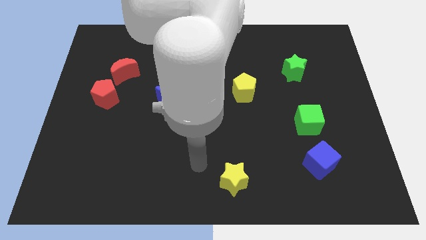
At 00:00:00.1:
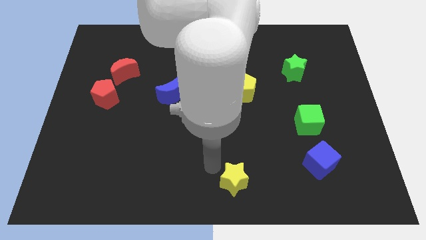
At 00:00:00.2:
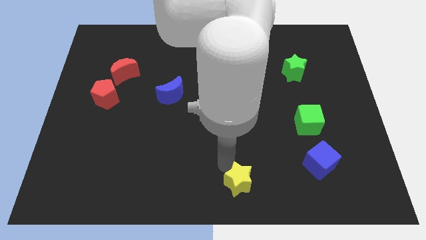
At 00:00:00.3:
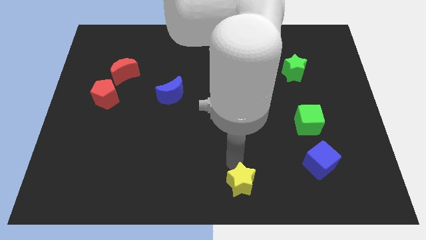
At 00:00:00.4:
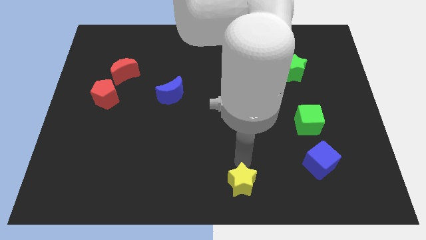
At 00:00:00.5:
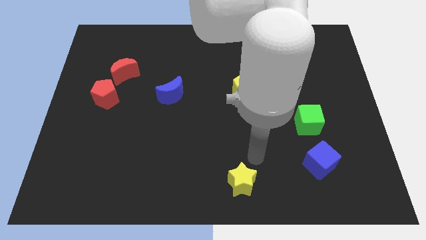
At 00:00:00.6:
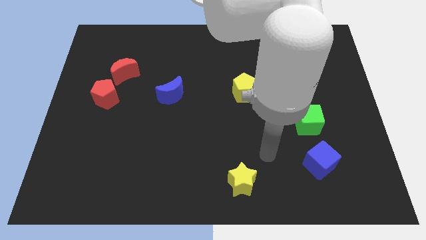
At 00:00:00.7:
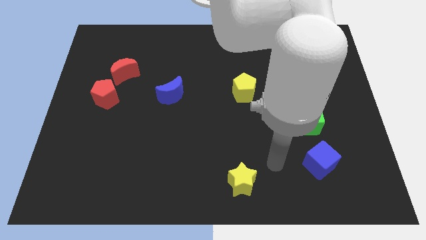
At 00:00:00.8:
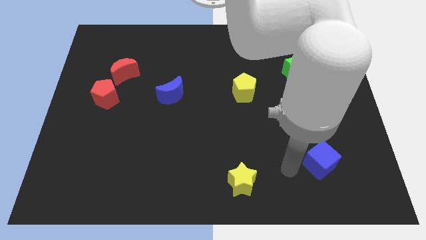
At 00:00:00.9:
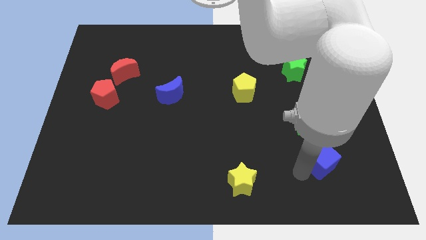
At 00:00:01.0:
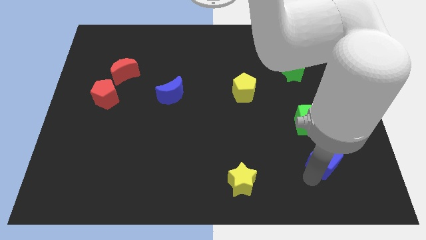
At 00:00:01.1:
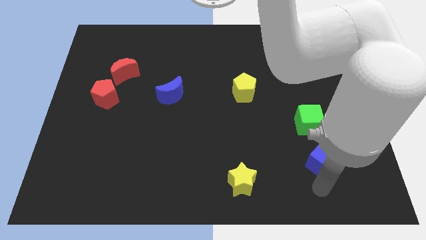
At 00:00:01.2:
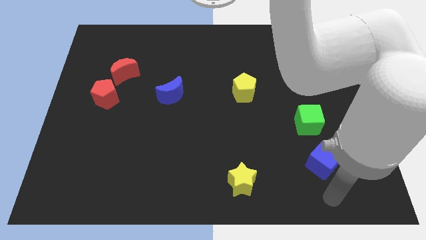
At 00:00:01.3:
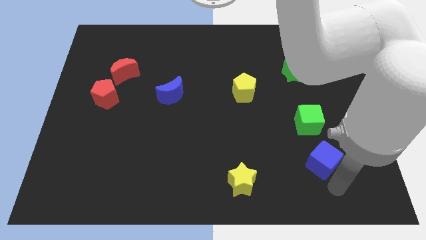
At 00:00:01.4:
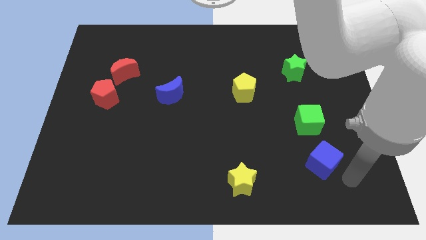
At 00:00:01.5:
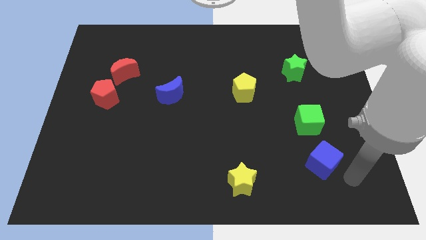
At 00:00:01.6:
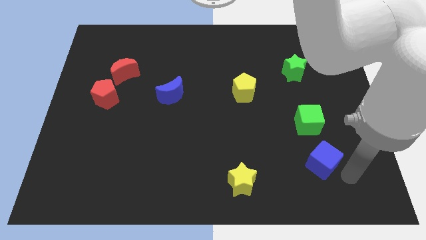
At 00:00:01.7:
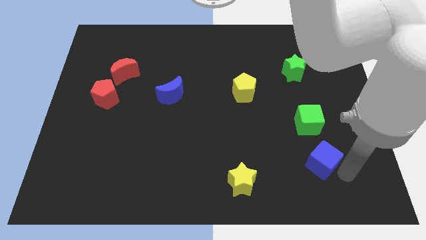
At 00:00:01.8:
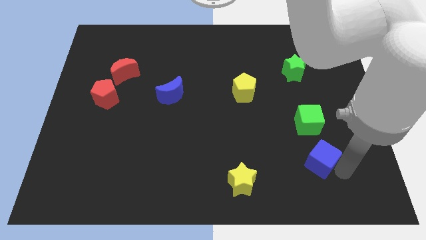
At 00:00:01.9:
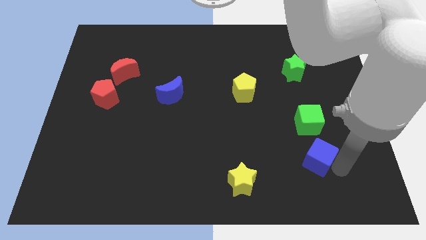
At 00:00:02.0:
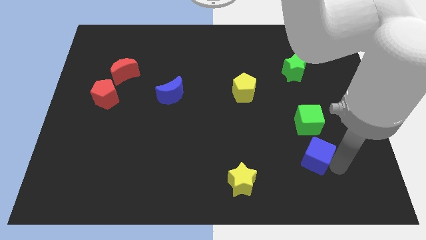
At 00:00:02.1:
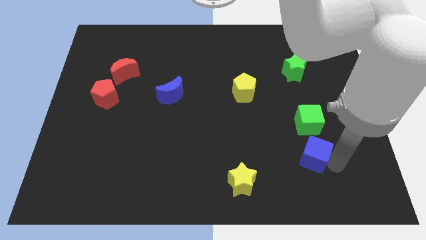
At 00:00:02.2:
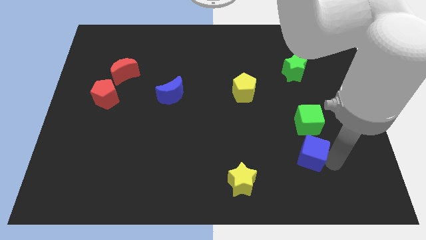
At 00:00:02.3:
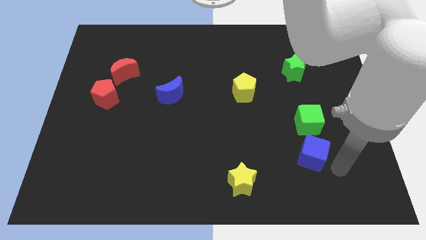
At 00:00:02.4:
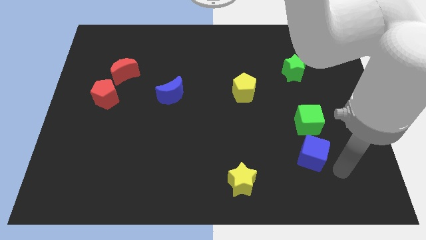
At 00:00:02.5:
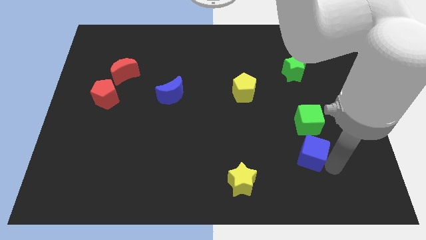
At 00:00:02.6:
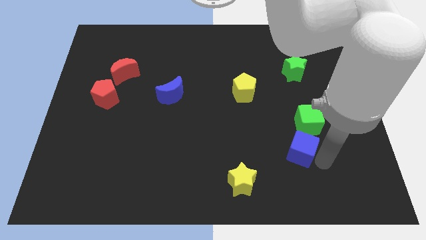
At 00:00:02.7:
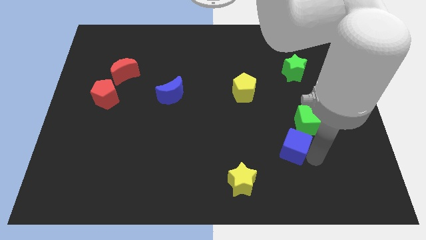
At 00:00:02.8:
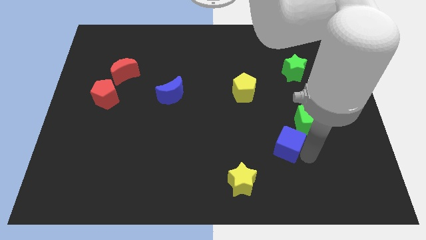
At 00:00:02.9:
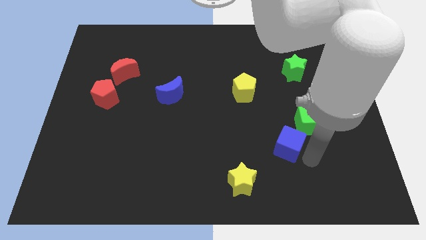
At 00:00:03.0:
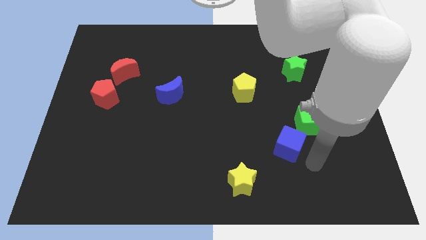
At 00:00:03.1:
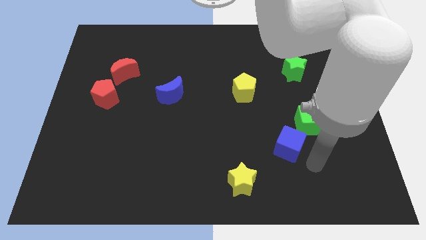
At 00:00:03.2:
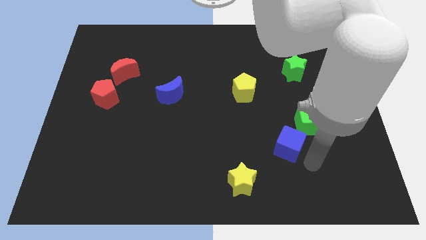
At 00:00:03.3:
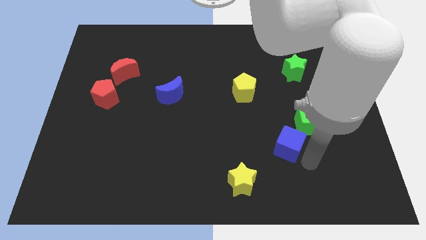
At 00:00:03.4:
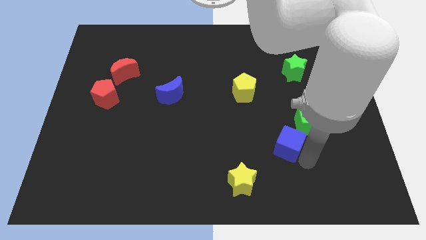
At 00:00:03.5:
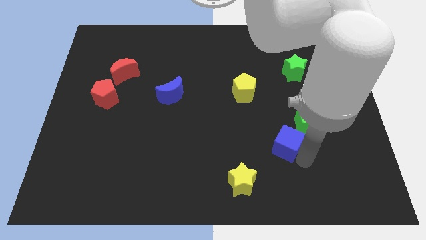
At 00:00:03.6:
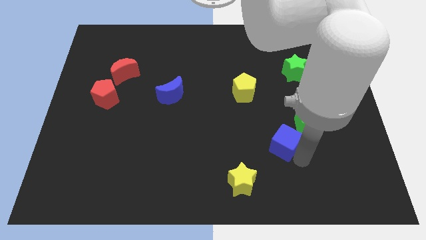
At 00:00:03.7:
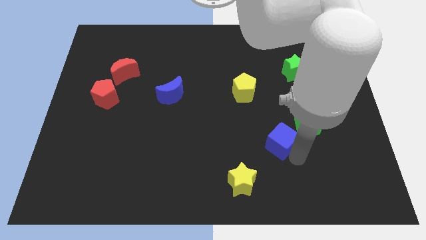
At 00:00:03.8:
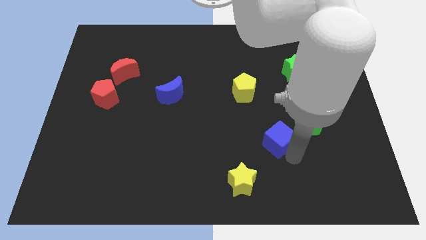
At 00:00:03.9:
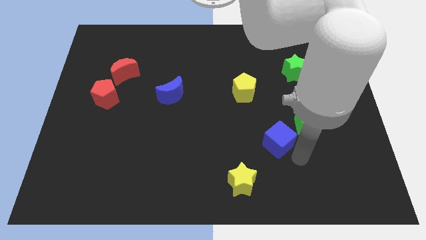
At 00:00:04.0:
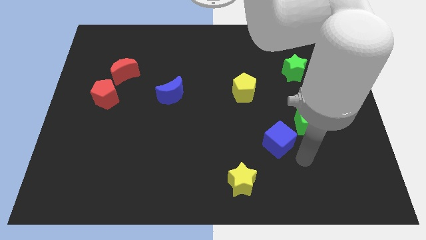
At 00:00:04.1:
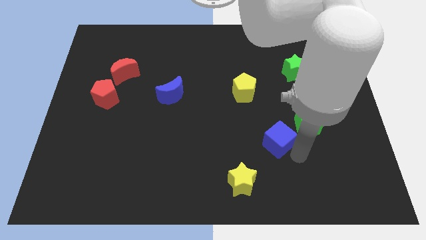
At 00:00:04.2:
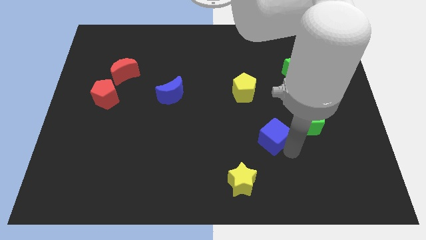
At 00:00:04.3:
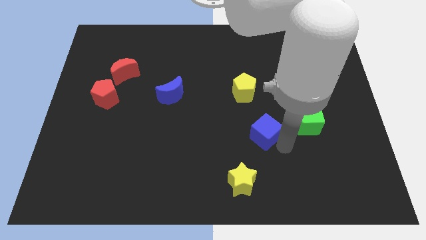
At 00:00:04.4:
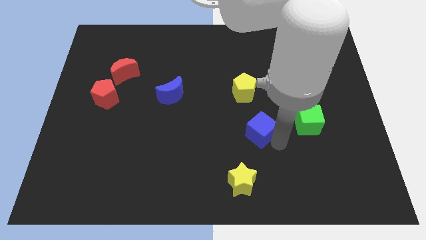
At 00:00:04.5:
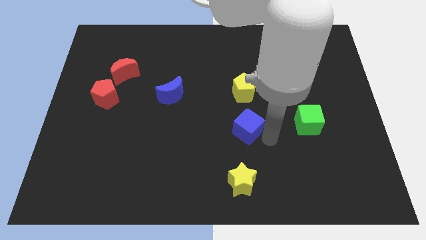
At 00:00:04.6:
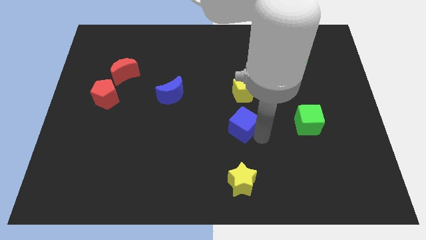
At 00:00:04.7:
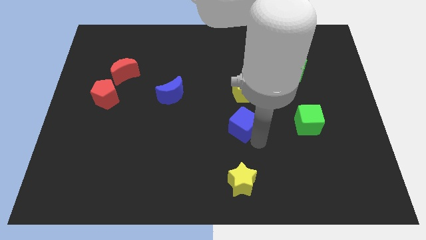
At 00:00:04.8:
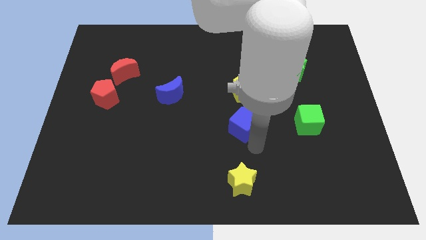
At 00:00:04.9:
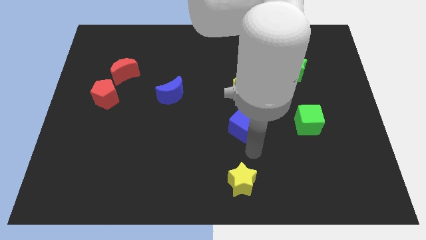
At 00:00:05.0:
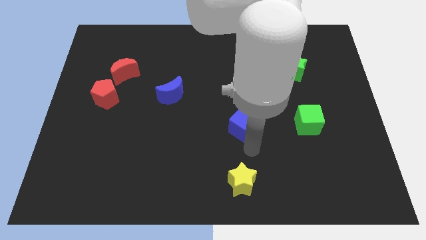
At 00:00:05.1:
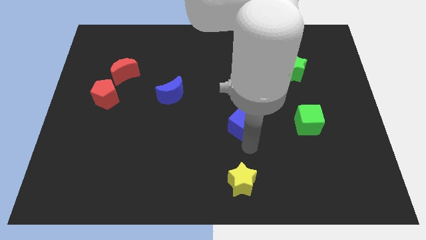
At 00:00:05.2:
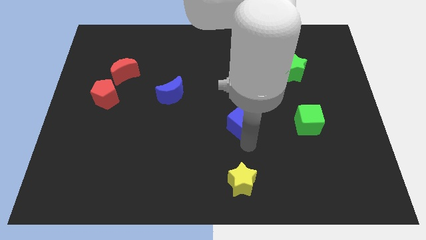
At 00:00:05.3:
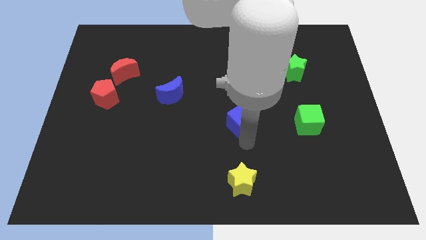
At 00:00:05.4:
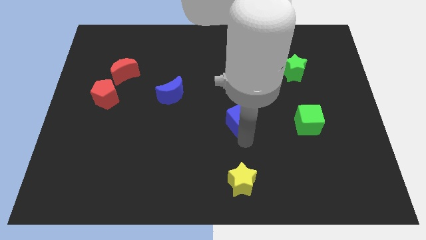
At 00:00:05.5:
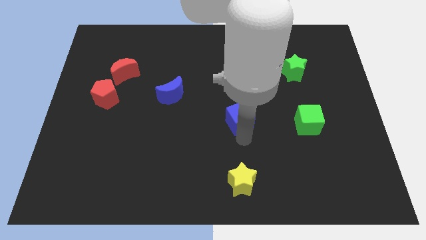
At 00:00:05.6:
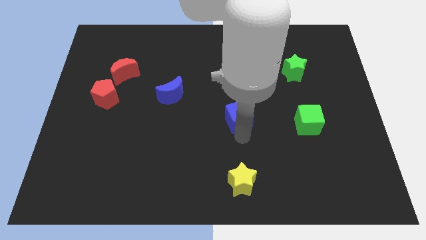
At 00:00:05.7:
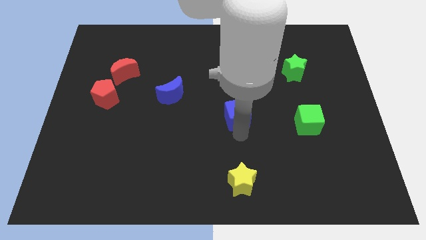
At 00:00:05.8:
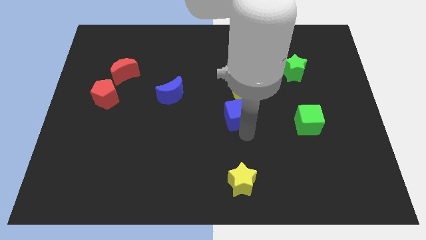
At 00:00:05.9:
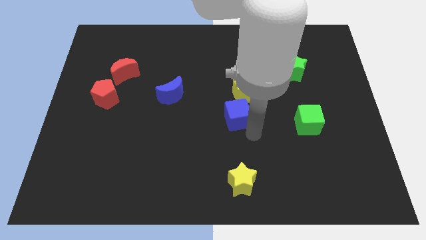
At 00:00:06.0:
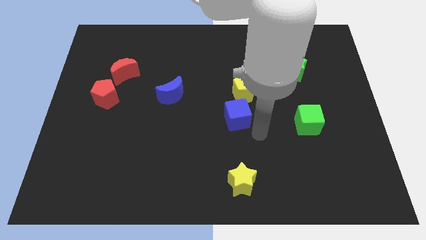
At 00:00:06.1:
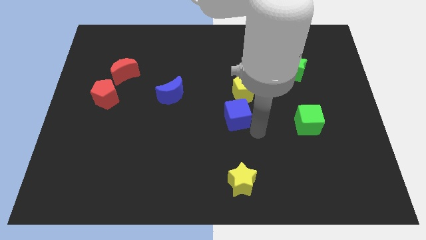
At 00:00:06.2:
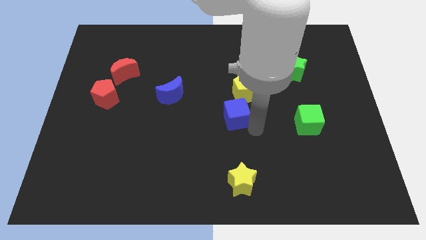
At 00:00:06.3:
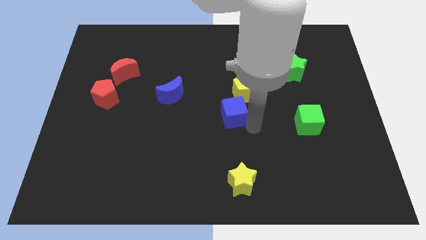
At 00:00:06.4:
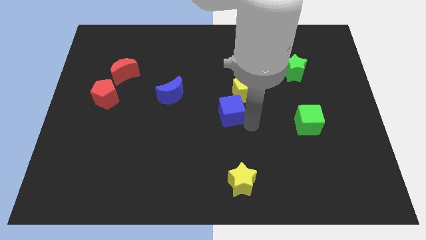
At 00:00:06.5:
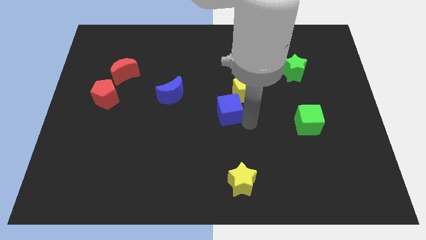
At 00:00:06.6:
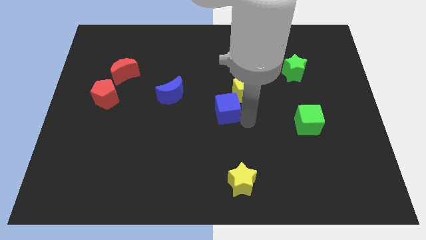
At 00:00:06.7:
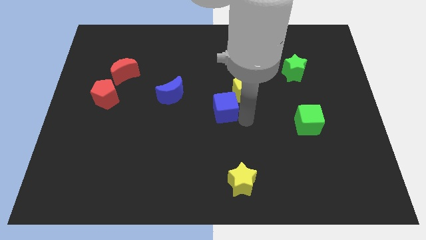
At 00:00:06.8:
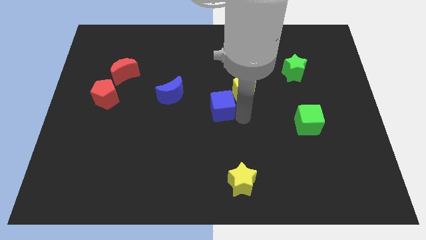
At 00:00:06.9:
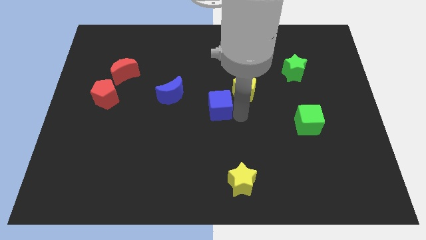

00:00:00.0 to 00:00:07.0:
put the blue cube just left of the yellow pentagon
